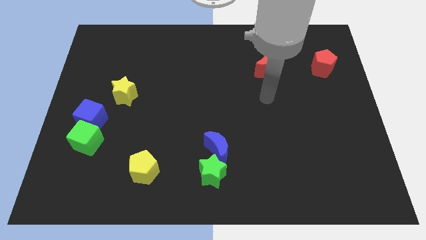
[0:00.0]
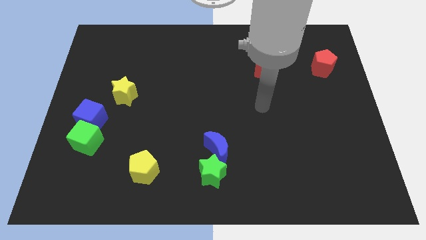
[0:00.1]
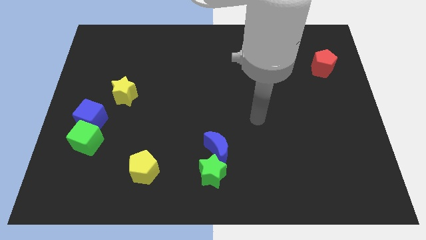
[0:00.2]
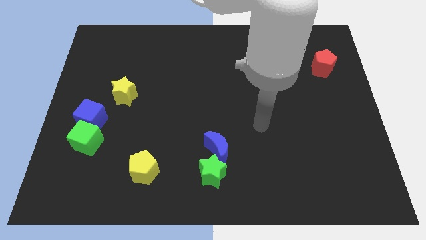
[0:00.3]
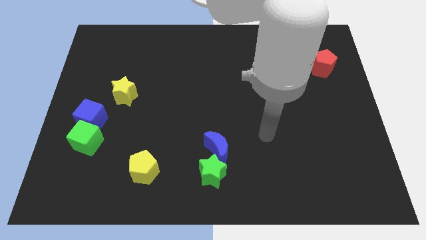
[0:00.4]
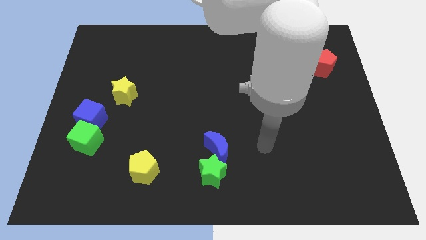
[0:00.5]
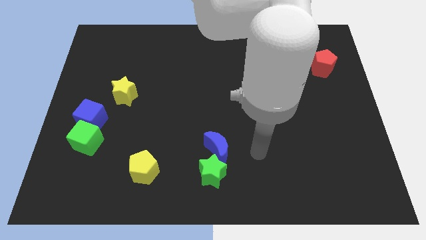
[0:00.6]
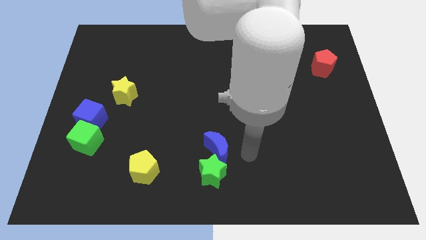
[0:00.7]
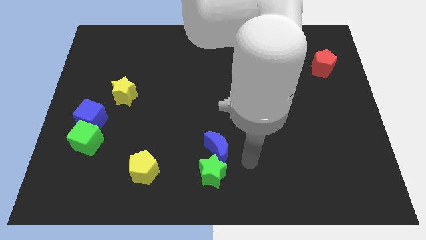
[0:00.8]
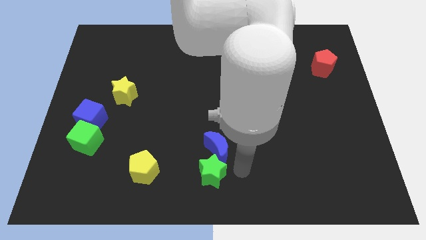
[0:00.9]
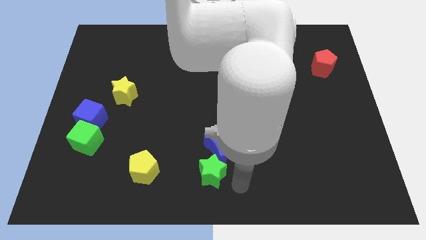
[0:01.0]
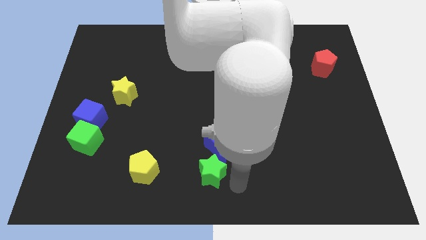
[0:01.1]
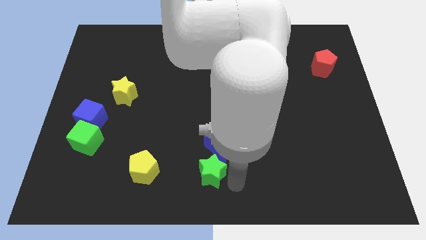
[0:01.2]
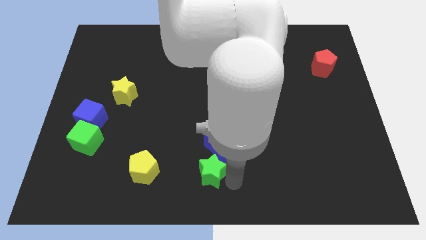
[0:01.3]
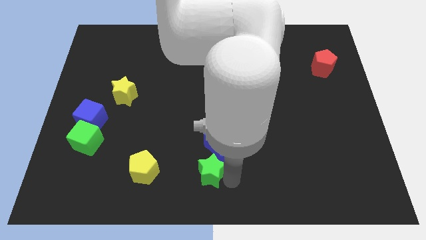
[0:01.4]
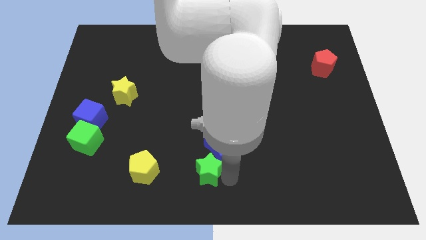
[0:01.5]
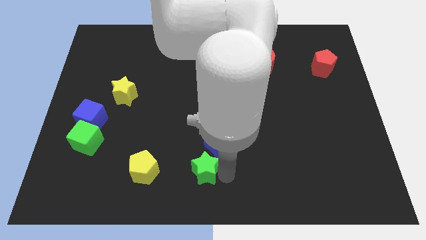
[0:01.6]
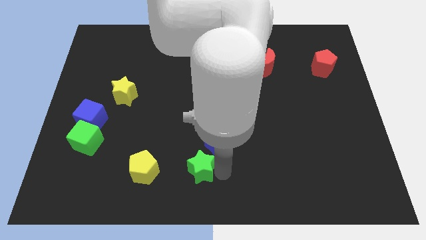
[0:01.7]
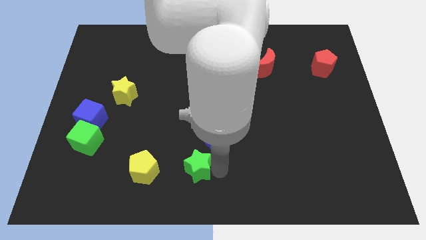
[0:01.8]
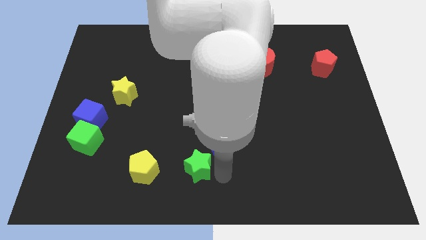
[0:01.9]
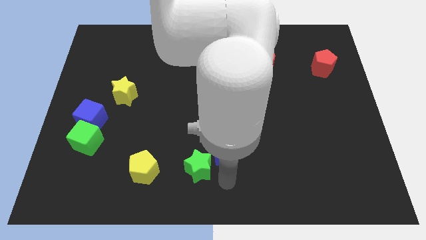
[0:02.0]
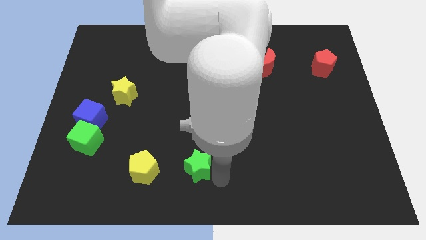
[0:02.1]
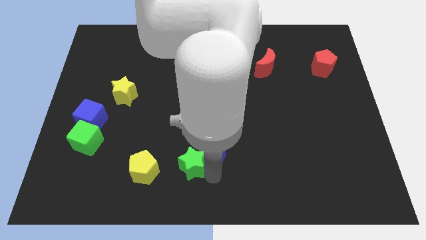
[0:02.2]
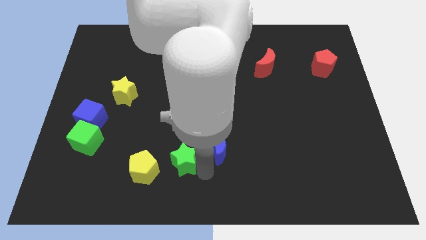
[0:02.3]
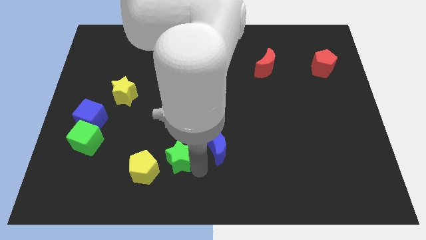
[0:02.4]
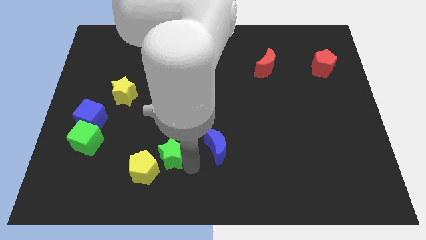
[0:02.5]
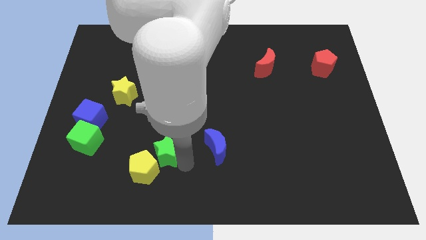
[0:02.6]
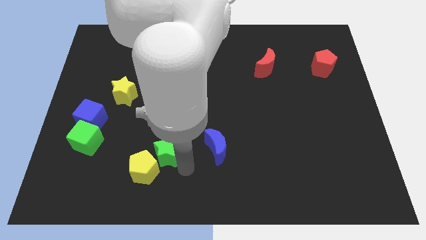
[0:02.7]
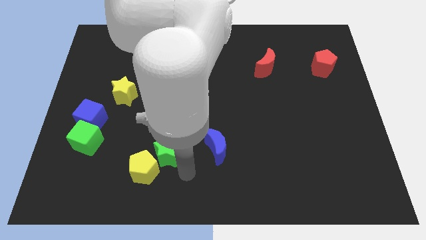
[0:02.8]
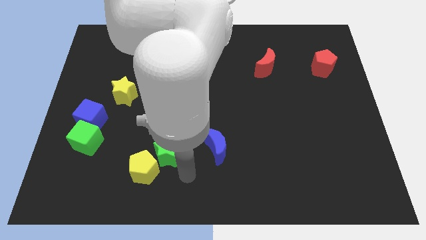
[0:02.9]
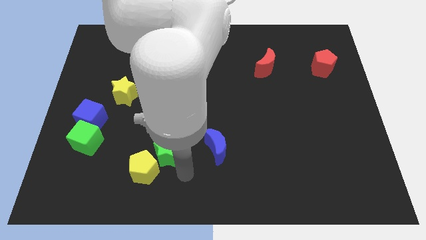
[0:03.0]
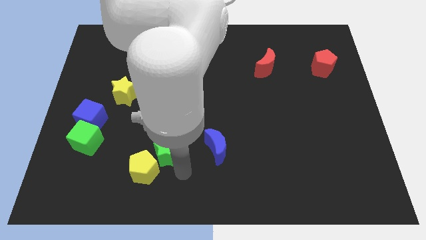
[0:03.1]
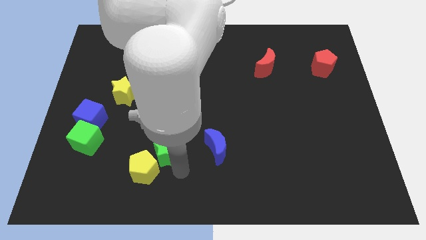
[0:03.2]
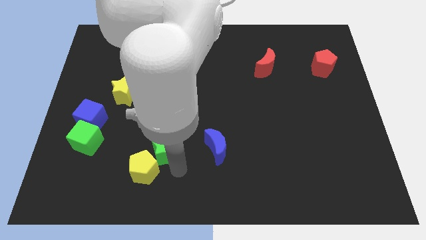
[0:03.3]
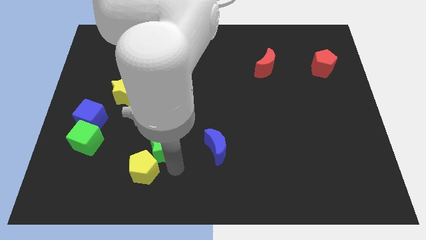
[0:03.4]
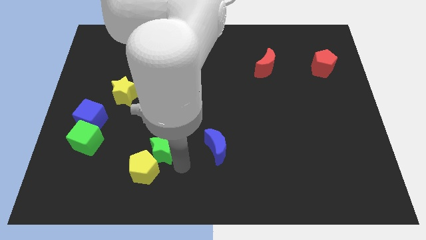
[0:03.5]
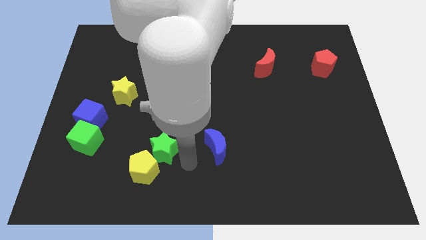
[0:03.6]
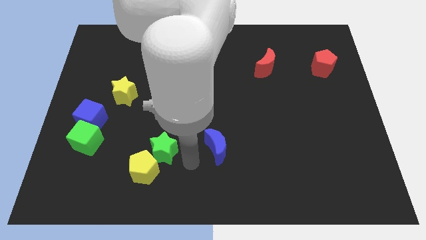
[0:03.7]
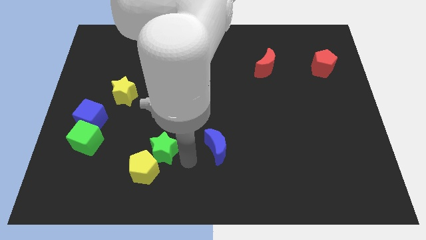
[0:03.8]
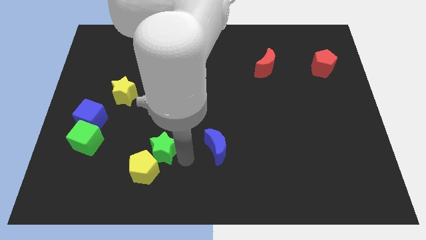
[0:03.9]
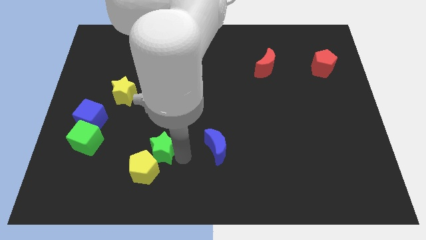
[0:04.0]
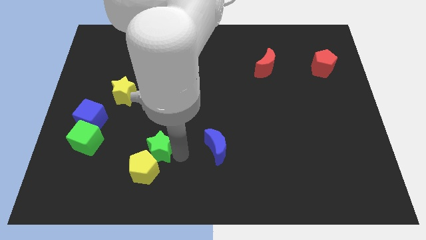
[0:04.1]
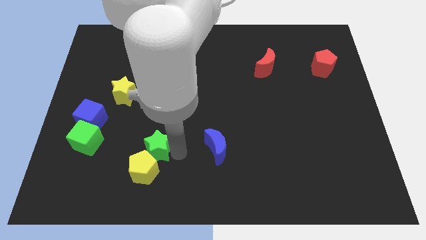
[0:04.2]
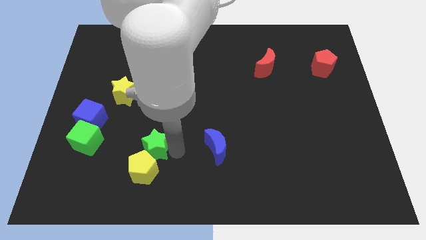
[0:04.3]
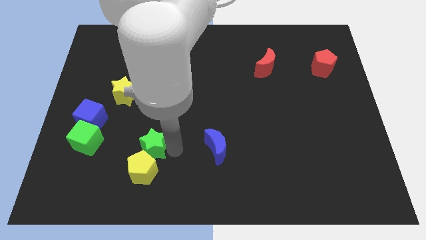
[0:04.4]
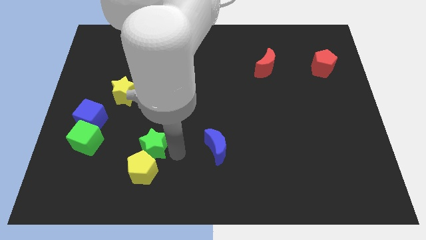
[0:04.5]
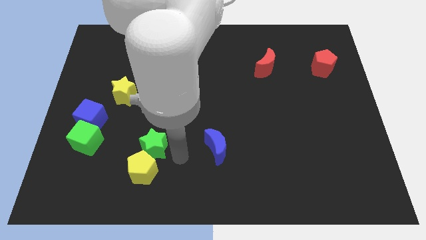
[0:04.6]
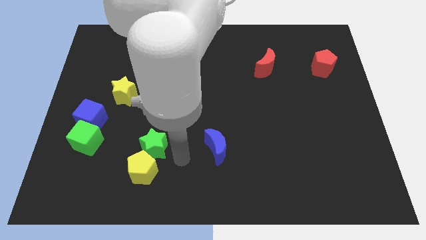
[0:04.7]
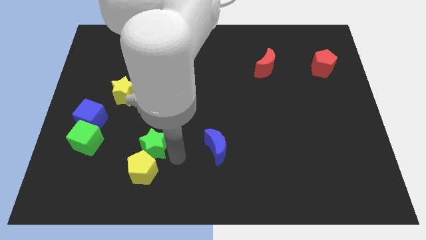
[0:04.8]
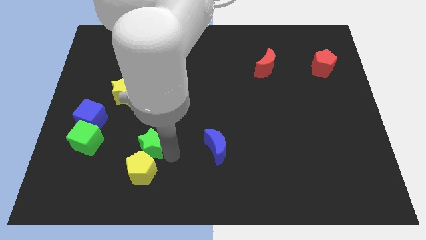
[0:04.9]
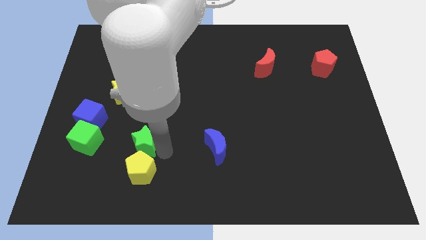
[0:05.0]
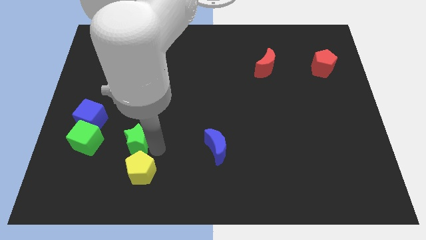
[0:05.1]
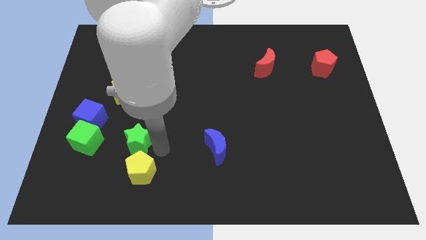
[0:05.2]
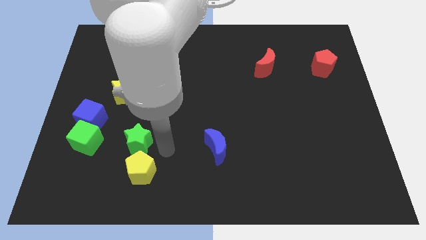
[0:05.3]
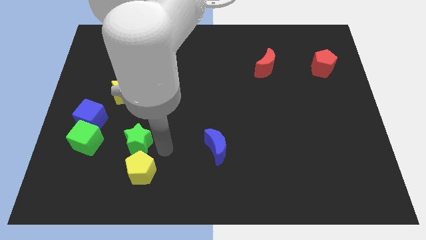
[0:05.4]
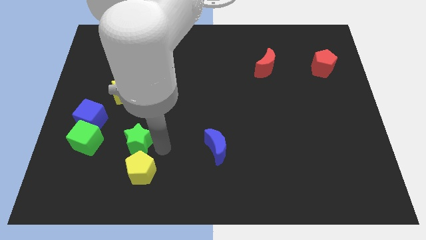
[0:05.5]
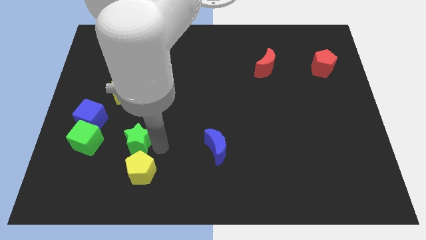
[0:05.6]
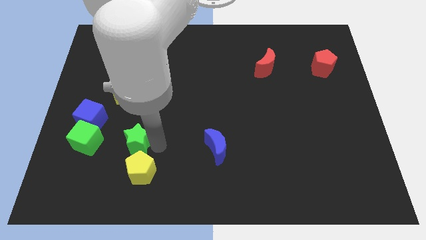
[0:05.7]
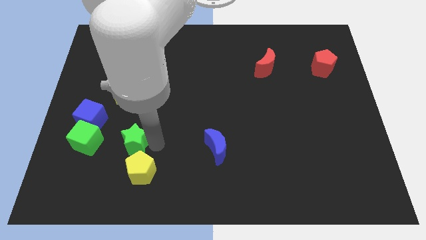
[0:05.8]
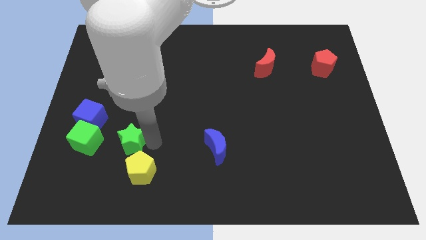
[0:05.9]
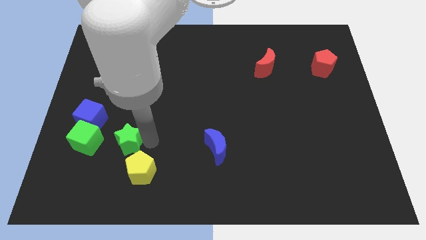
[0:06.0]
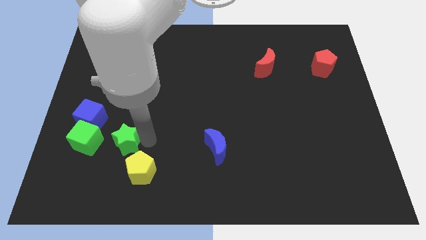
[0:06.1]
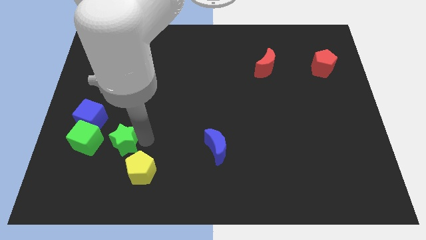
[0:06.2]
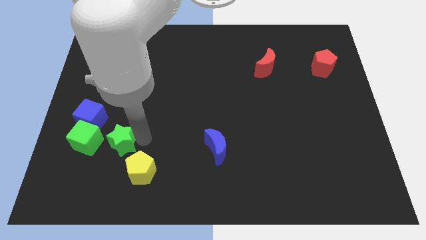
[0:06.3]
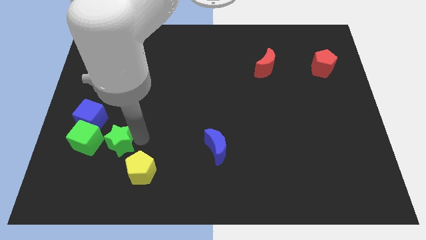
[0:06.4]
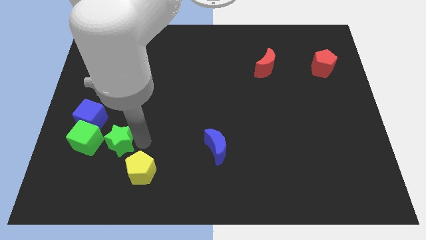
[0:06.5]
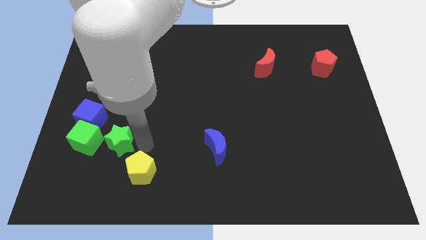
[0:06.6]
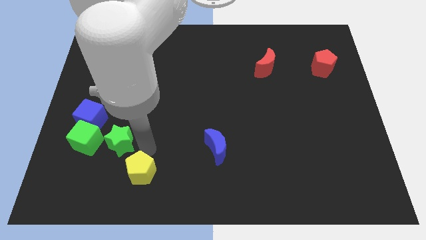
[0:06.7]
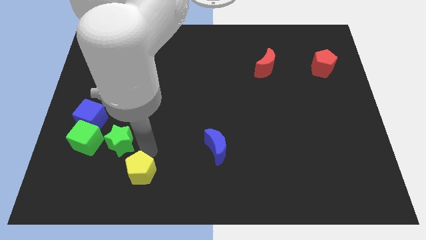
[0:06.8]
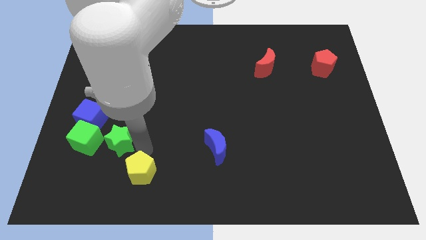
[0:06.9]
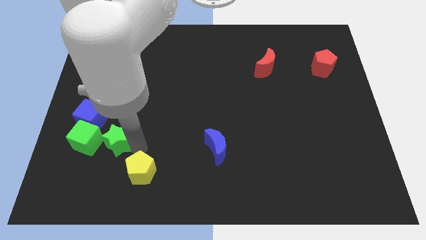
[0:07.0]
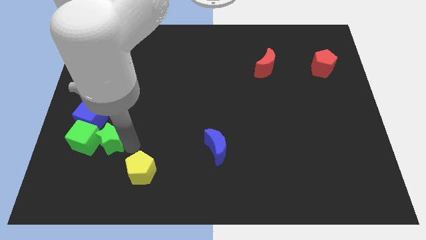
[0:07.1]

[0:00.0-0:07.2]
move the green star to the green cube

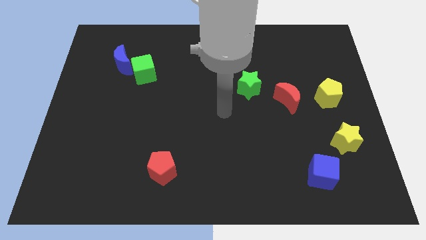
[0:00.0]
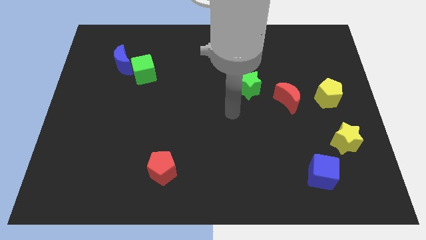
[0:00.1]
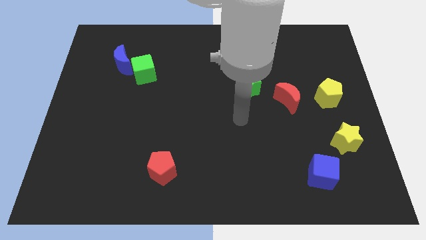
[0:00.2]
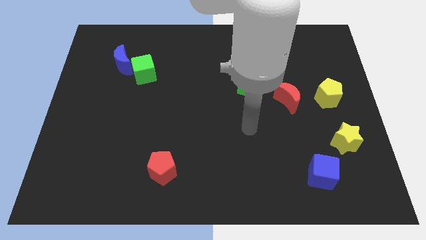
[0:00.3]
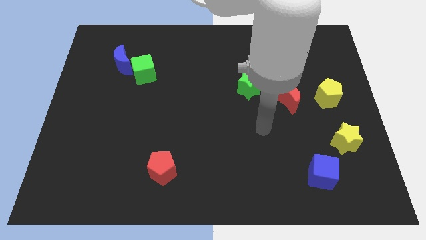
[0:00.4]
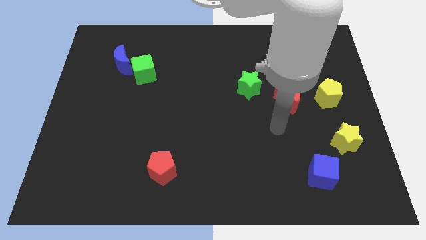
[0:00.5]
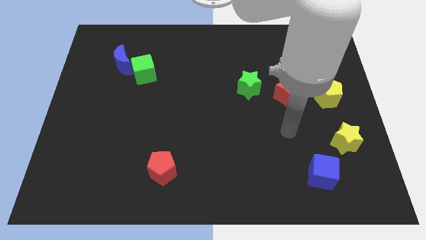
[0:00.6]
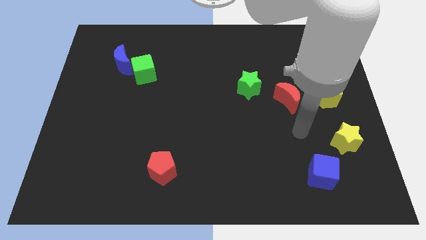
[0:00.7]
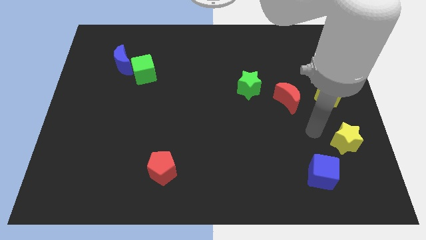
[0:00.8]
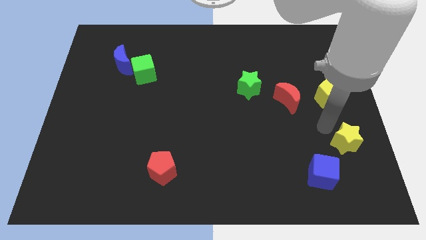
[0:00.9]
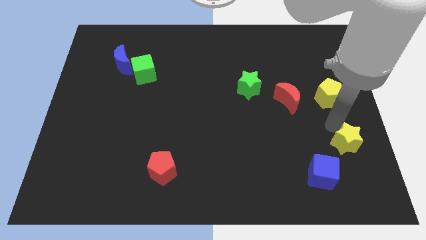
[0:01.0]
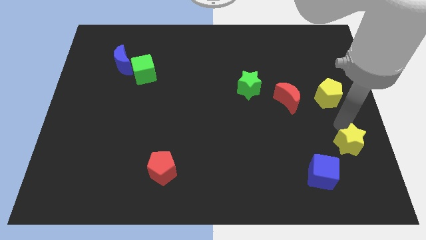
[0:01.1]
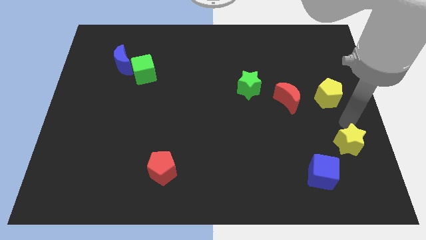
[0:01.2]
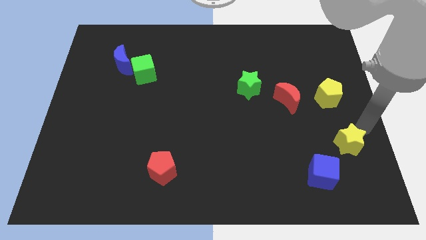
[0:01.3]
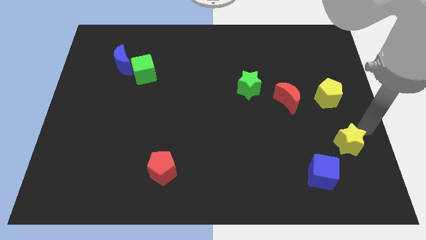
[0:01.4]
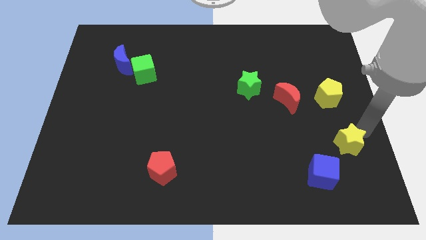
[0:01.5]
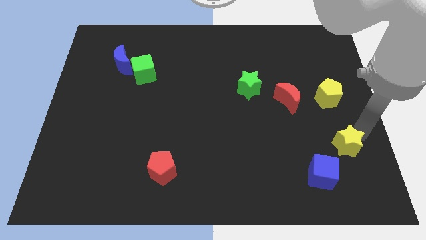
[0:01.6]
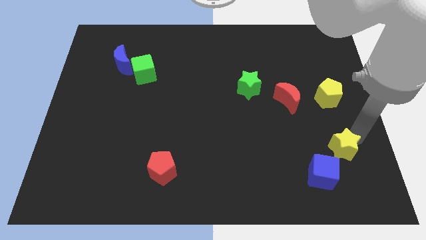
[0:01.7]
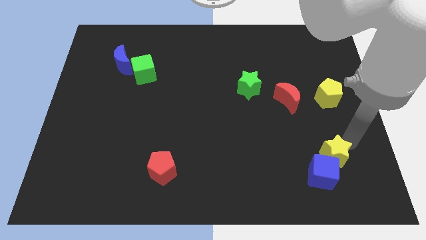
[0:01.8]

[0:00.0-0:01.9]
push the yellow star towards the blue cube
